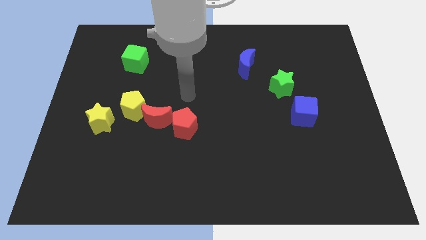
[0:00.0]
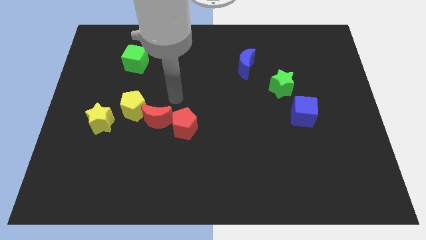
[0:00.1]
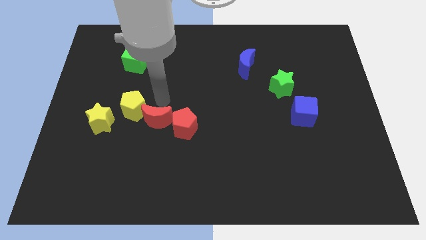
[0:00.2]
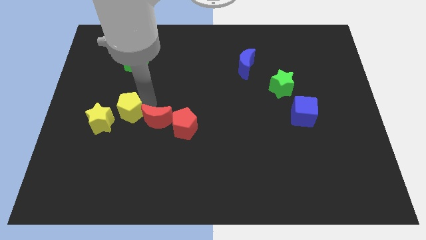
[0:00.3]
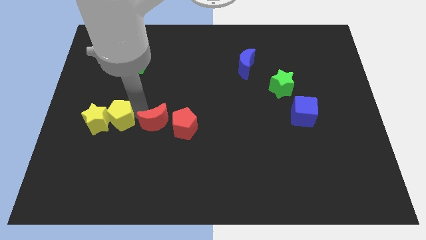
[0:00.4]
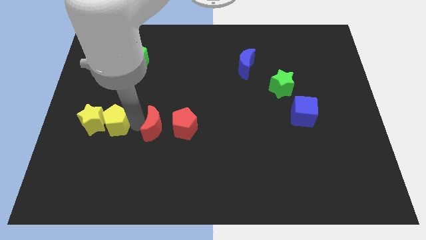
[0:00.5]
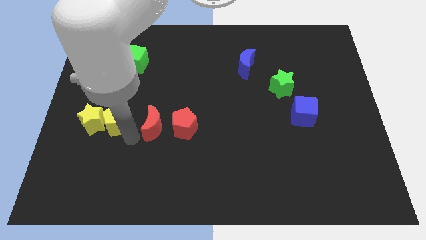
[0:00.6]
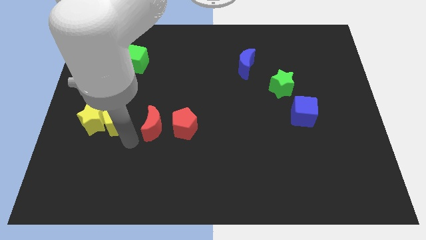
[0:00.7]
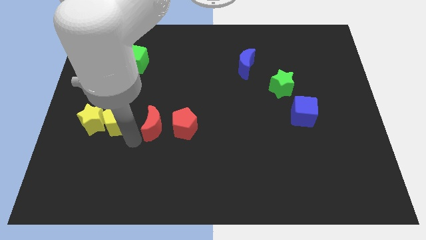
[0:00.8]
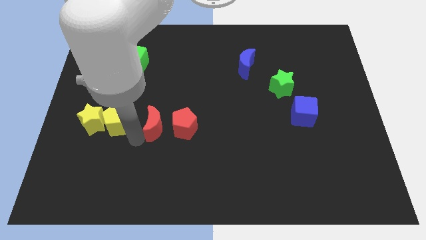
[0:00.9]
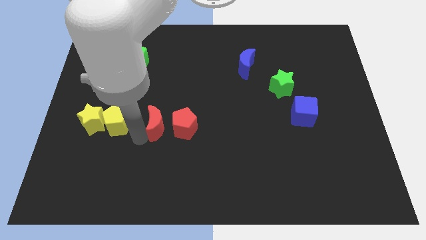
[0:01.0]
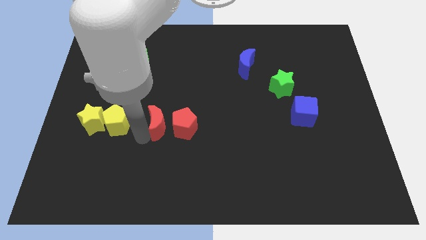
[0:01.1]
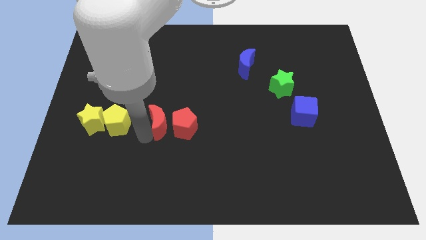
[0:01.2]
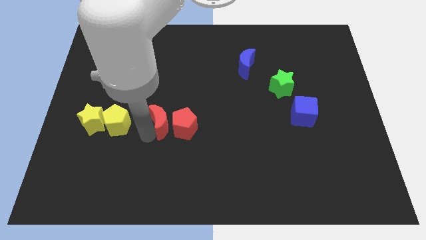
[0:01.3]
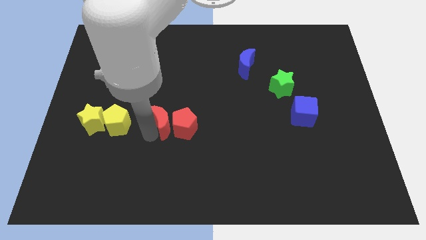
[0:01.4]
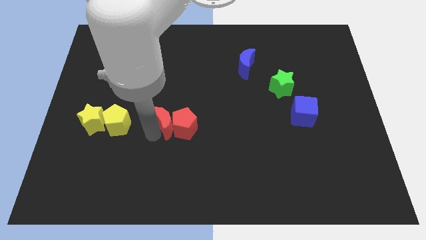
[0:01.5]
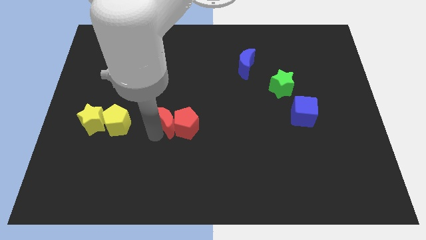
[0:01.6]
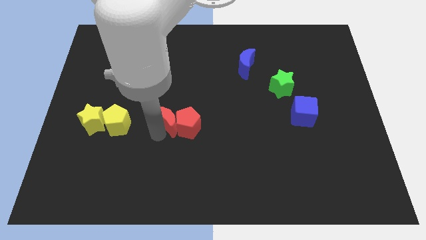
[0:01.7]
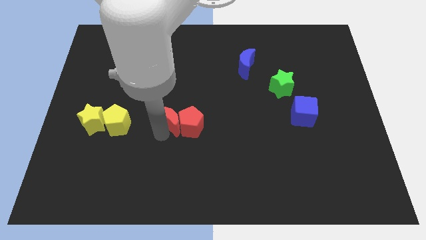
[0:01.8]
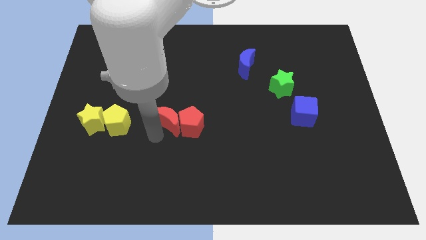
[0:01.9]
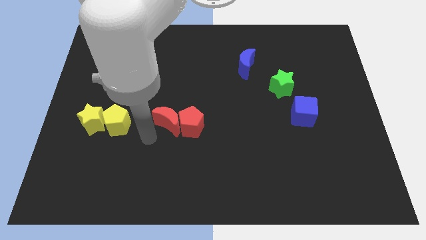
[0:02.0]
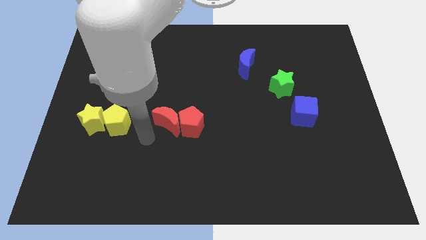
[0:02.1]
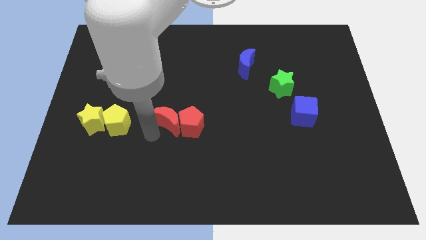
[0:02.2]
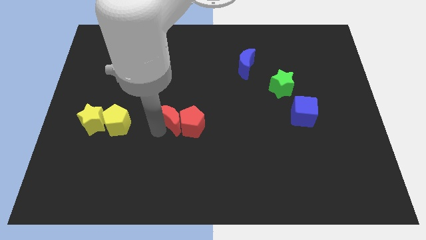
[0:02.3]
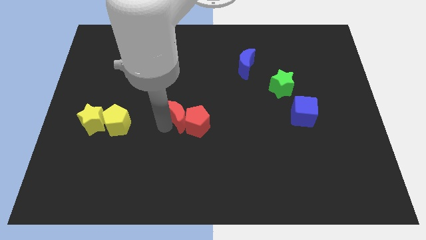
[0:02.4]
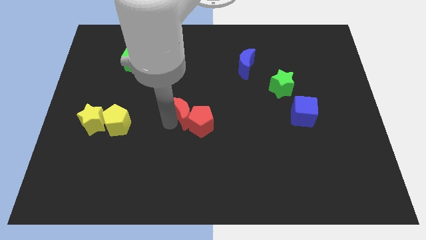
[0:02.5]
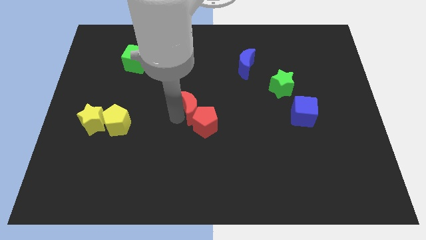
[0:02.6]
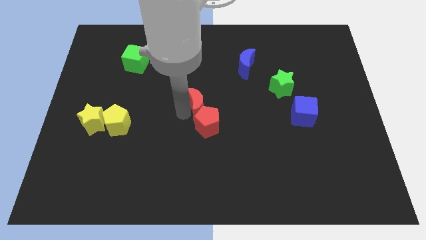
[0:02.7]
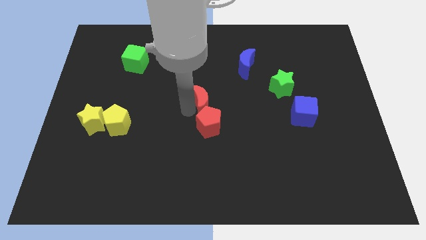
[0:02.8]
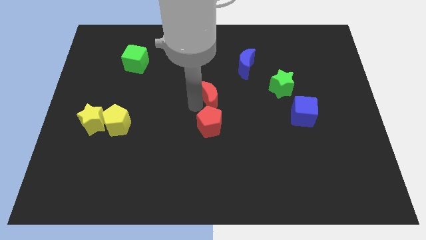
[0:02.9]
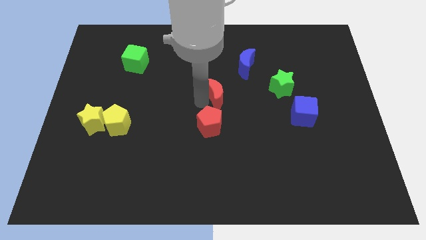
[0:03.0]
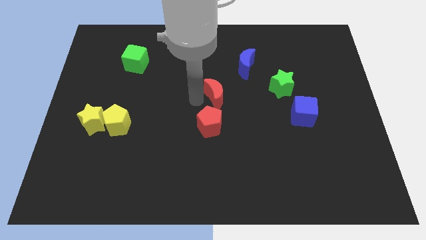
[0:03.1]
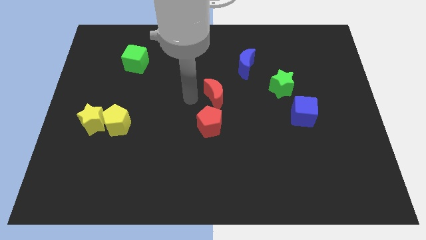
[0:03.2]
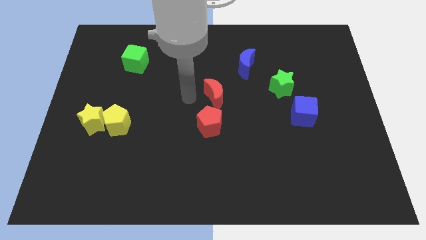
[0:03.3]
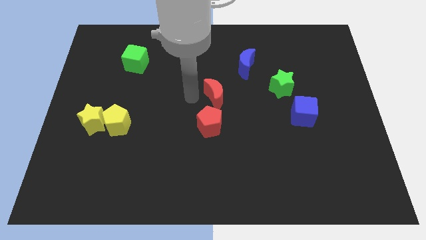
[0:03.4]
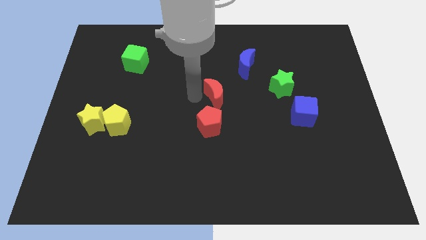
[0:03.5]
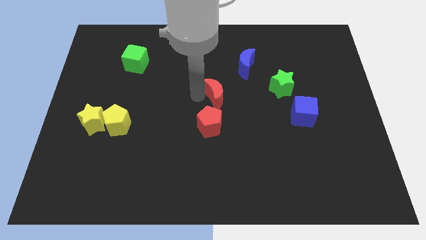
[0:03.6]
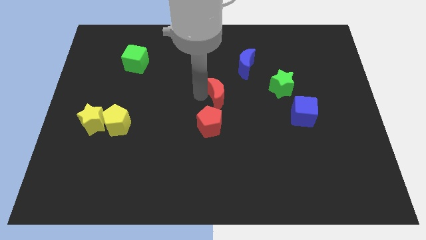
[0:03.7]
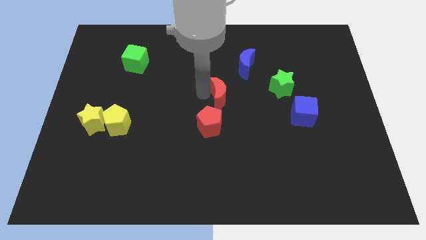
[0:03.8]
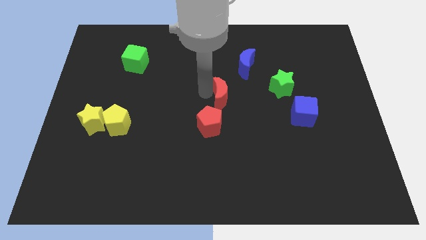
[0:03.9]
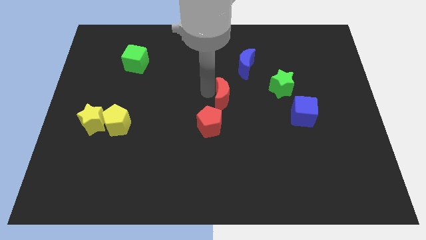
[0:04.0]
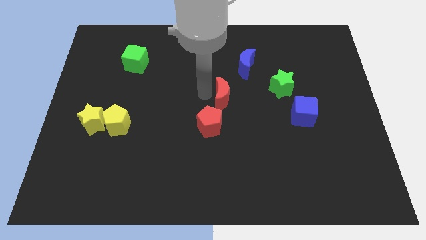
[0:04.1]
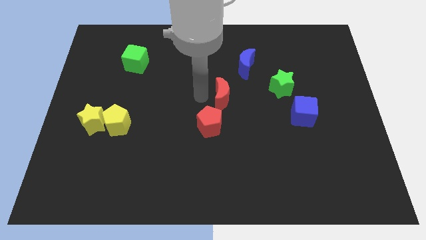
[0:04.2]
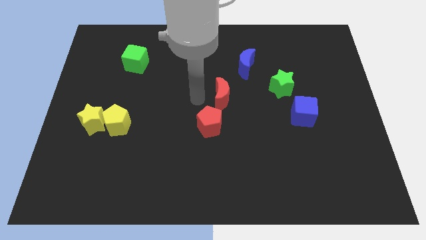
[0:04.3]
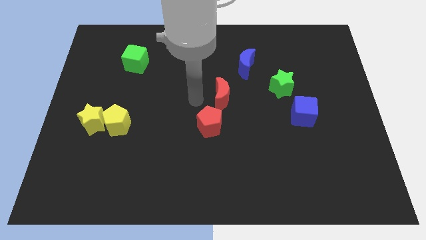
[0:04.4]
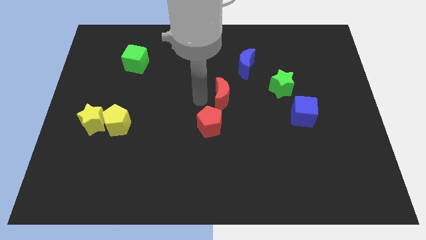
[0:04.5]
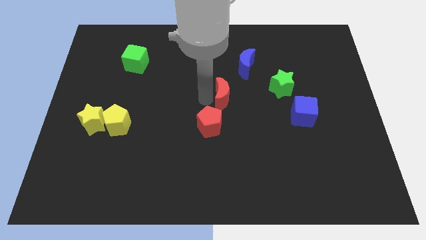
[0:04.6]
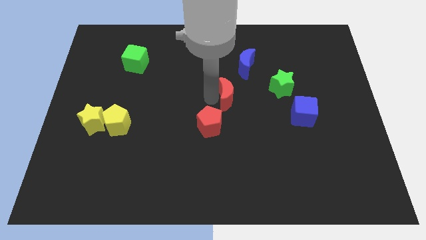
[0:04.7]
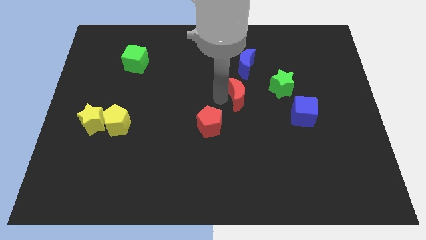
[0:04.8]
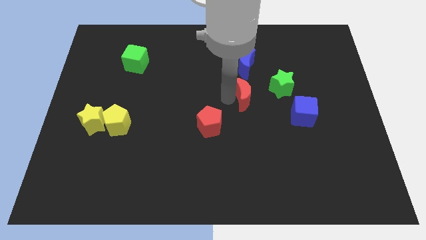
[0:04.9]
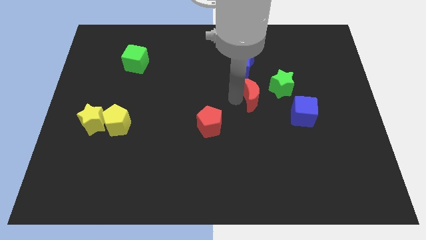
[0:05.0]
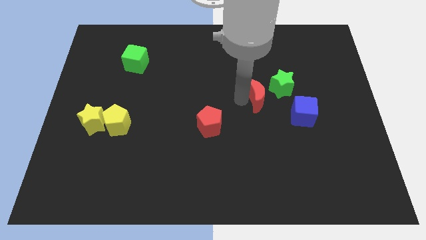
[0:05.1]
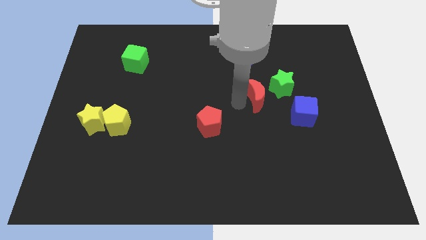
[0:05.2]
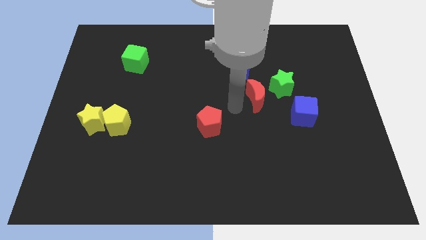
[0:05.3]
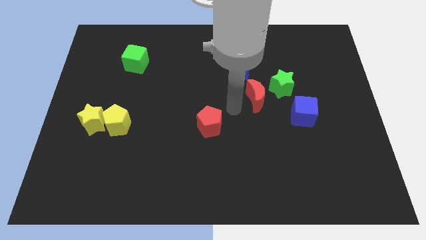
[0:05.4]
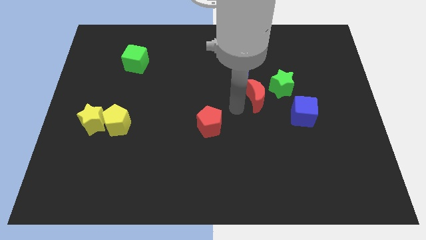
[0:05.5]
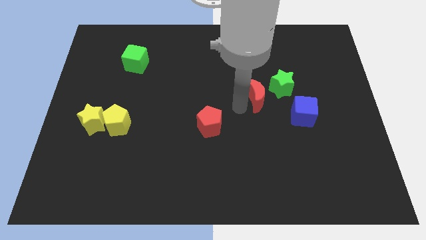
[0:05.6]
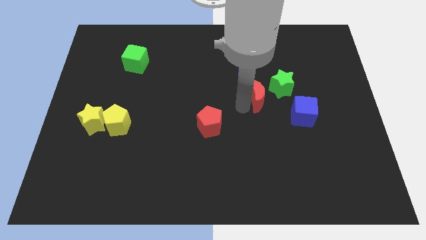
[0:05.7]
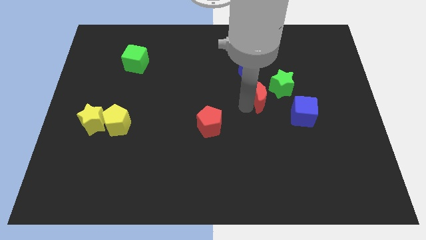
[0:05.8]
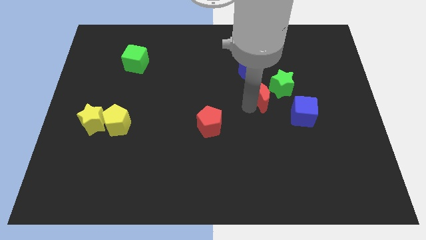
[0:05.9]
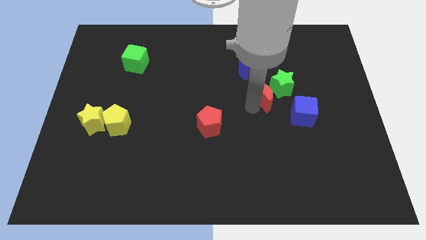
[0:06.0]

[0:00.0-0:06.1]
push the red moon to the green star

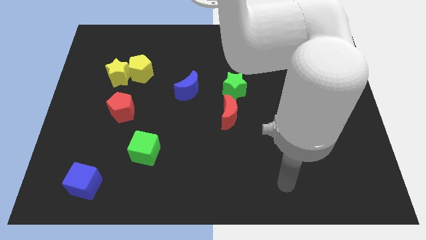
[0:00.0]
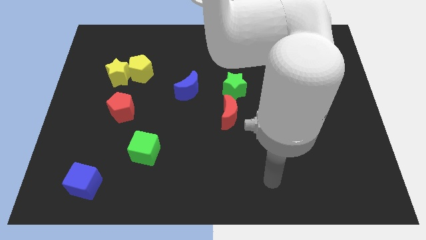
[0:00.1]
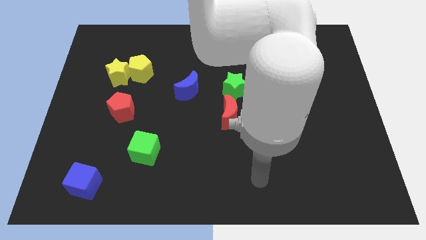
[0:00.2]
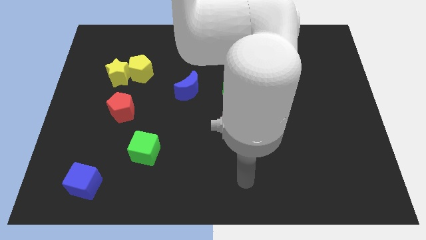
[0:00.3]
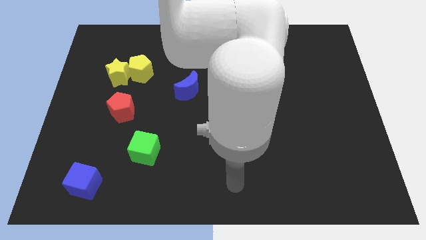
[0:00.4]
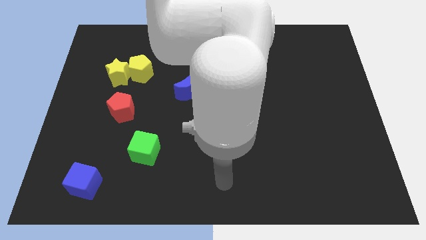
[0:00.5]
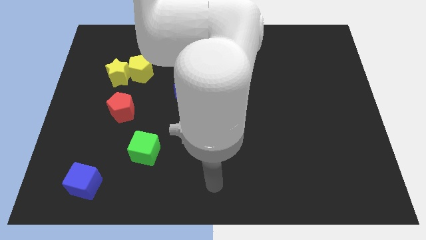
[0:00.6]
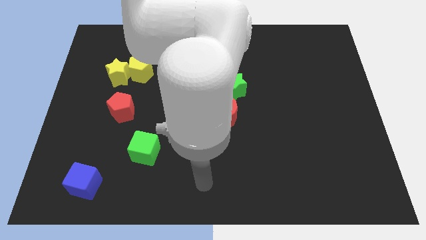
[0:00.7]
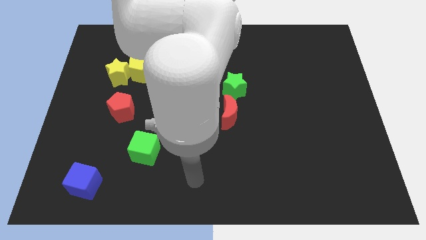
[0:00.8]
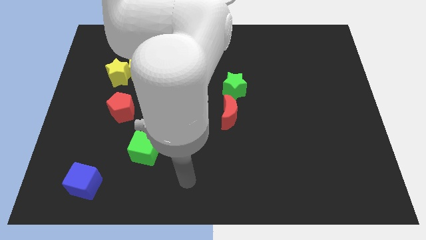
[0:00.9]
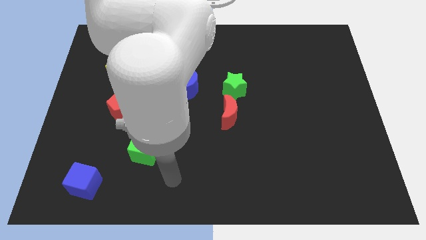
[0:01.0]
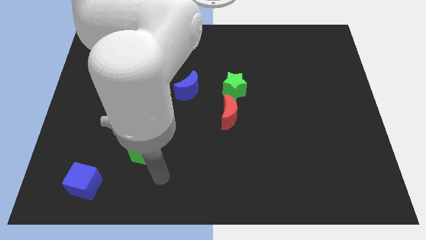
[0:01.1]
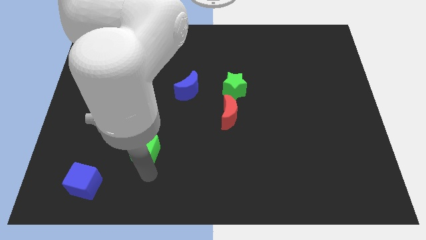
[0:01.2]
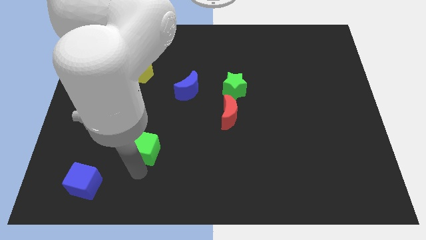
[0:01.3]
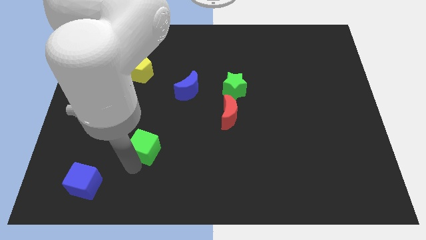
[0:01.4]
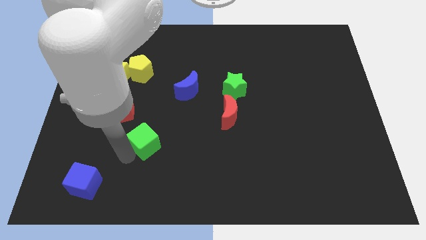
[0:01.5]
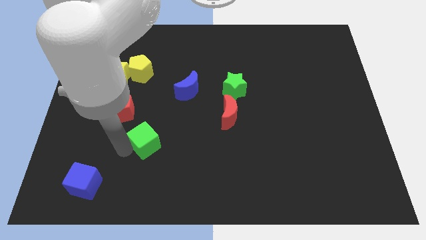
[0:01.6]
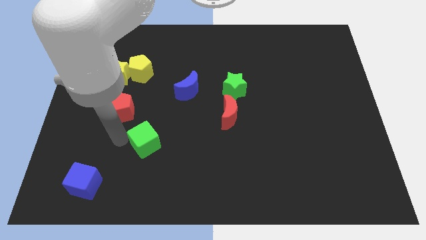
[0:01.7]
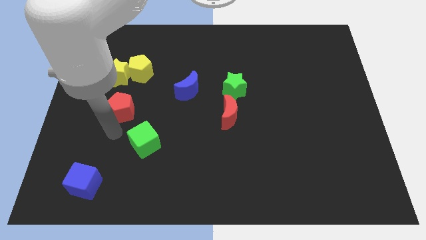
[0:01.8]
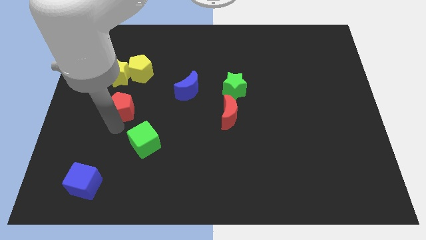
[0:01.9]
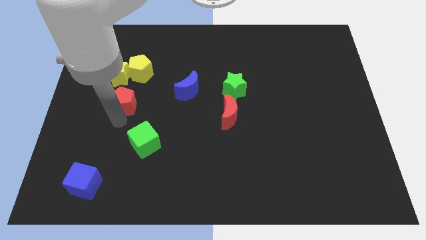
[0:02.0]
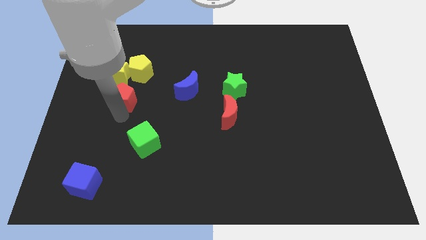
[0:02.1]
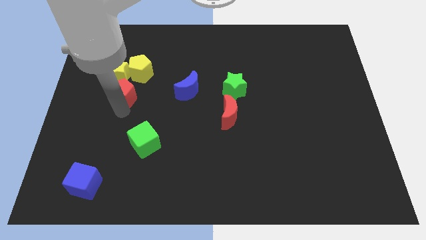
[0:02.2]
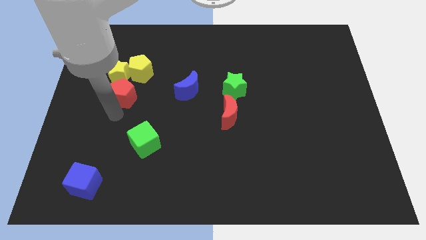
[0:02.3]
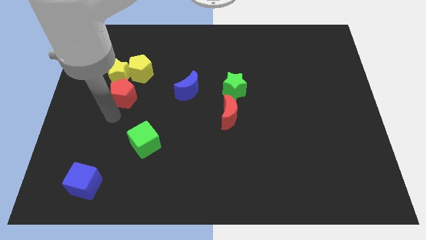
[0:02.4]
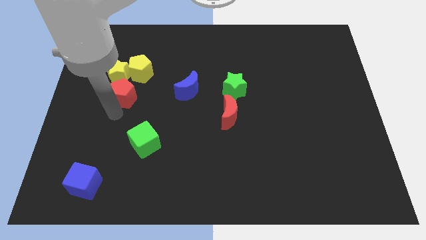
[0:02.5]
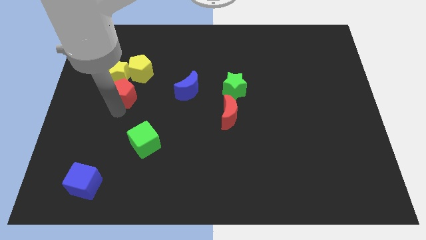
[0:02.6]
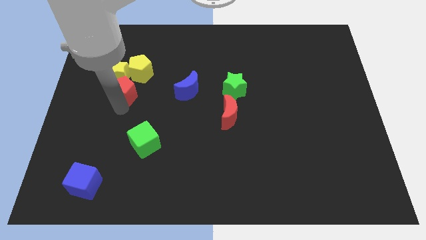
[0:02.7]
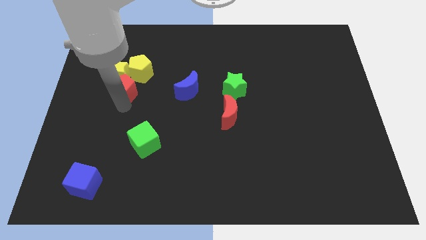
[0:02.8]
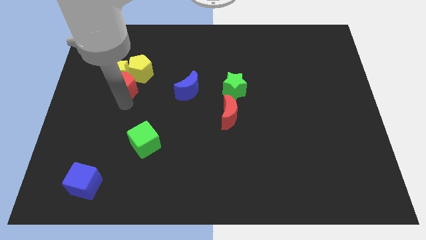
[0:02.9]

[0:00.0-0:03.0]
move the red pentagon towards the yellow pentagon
